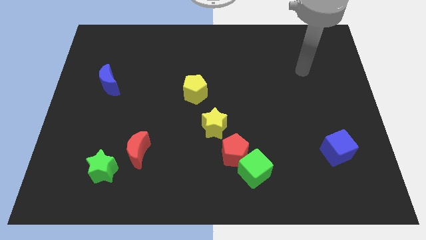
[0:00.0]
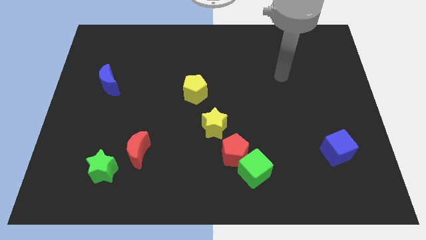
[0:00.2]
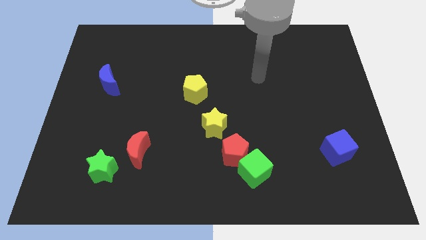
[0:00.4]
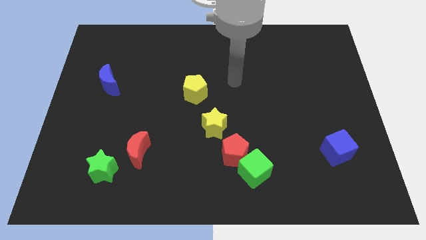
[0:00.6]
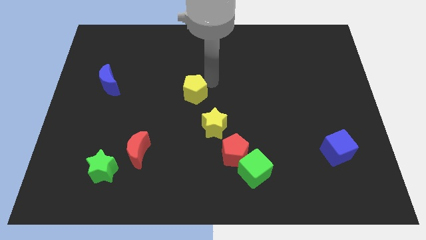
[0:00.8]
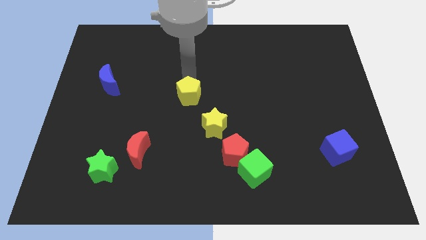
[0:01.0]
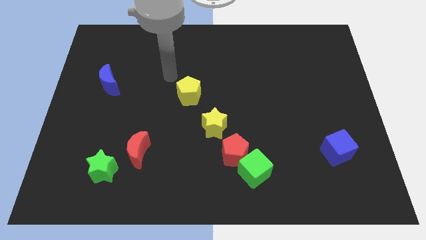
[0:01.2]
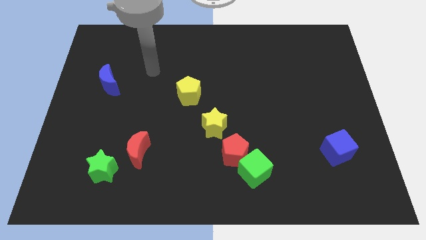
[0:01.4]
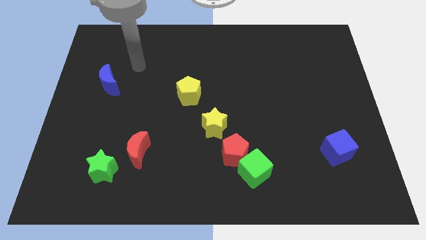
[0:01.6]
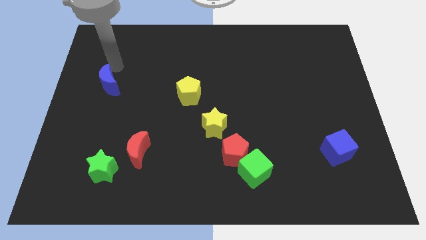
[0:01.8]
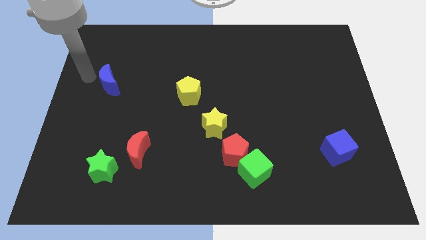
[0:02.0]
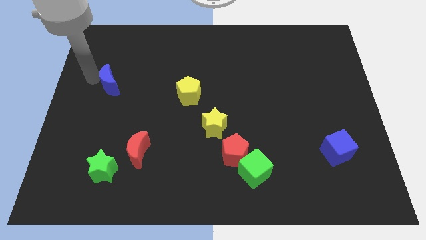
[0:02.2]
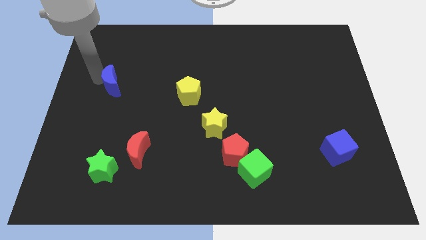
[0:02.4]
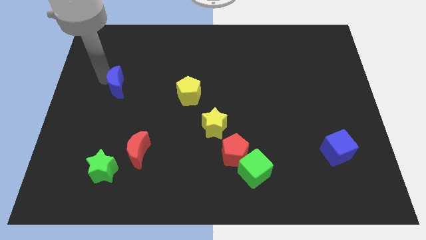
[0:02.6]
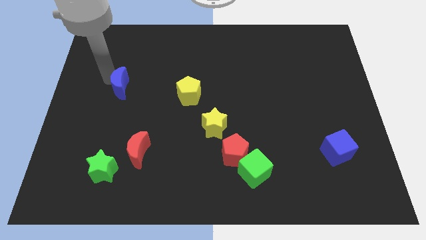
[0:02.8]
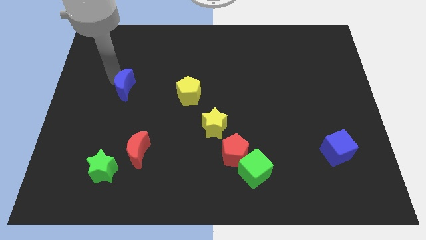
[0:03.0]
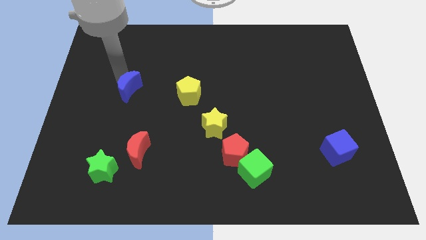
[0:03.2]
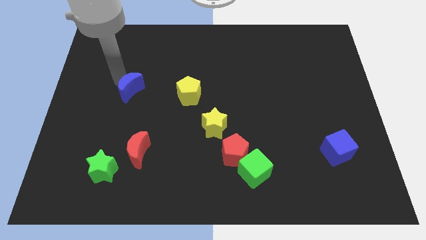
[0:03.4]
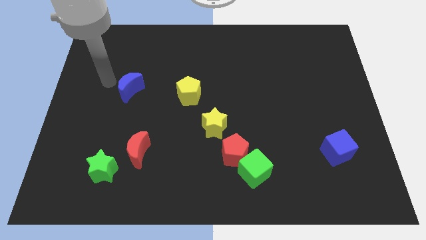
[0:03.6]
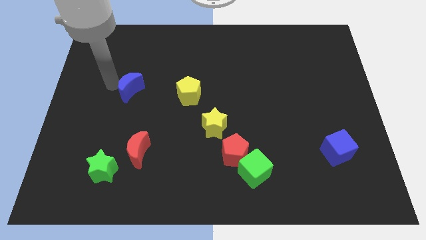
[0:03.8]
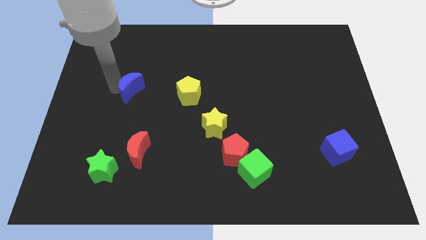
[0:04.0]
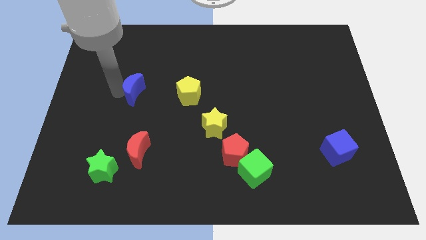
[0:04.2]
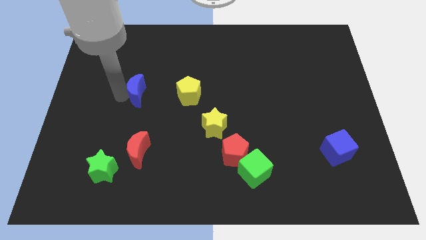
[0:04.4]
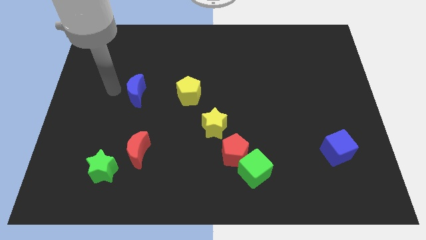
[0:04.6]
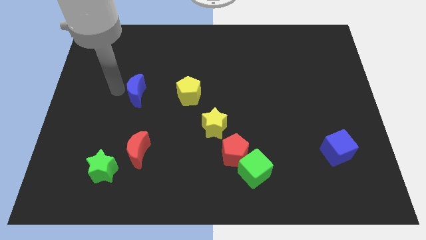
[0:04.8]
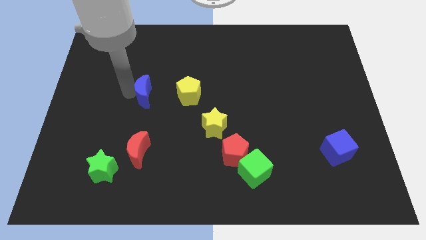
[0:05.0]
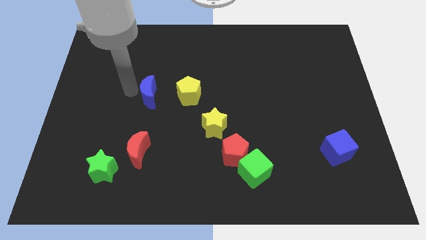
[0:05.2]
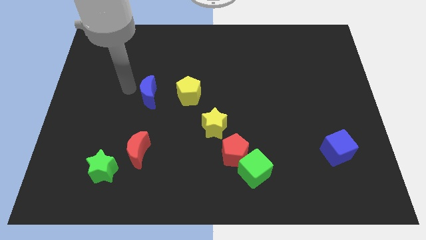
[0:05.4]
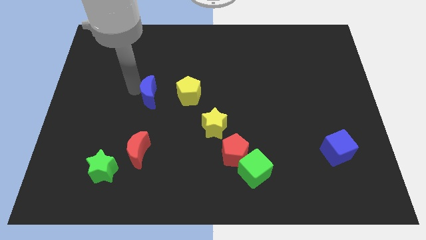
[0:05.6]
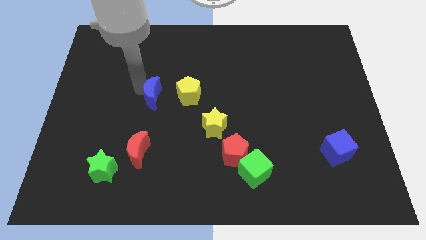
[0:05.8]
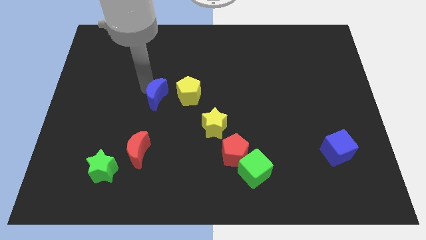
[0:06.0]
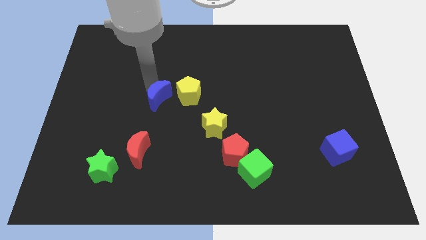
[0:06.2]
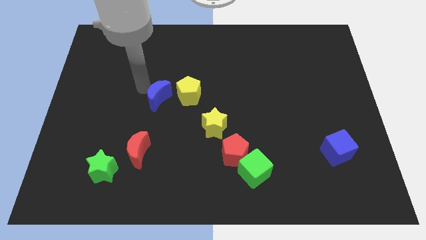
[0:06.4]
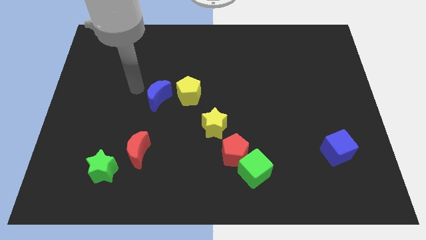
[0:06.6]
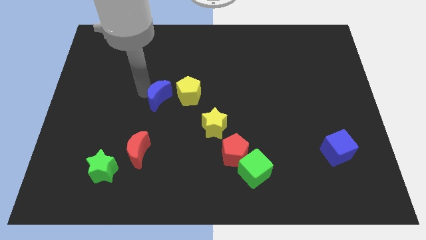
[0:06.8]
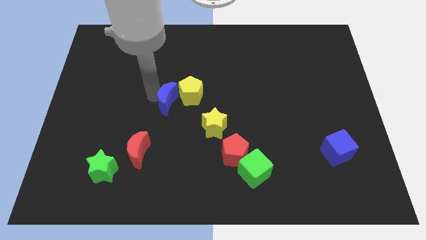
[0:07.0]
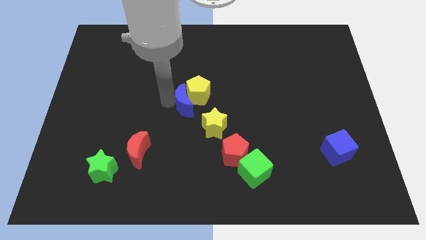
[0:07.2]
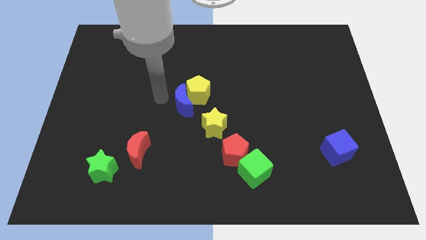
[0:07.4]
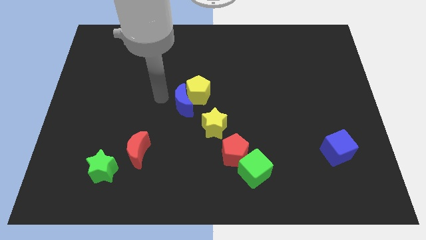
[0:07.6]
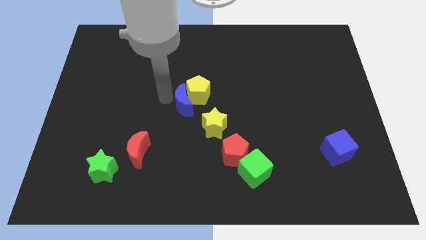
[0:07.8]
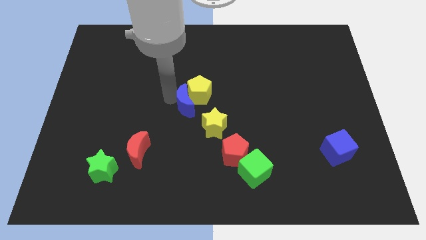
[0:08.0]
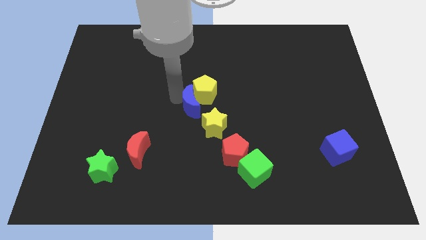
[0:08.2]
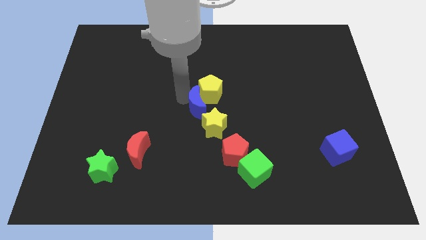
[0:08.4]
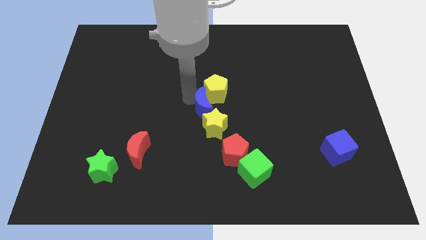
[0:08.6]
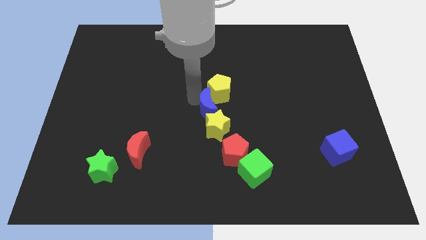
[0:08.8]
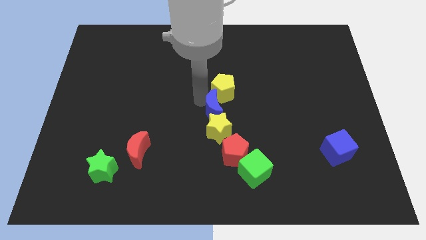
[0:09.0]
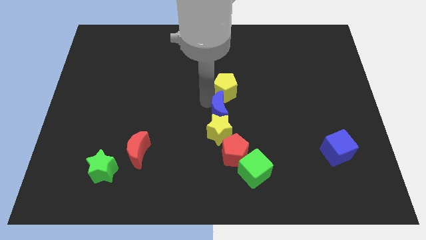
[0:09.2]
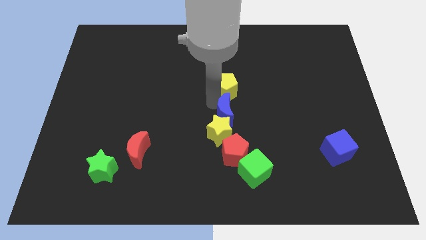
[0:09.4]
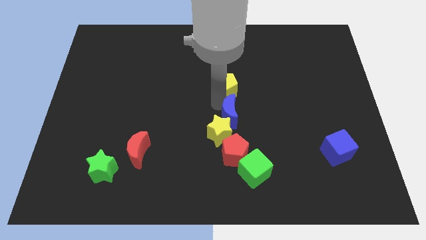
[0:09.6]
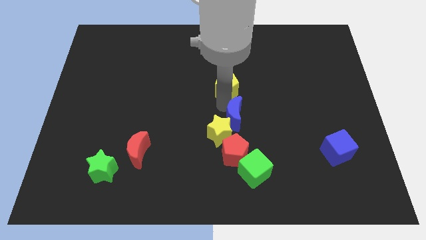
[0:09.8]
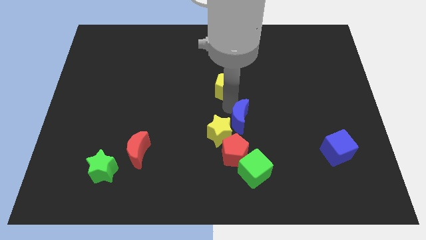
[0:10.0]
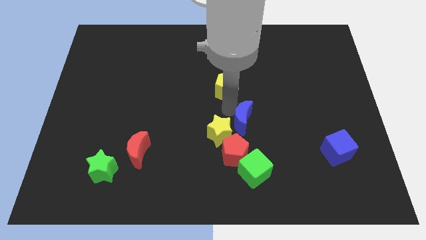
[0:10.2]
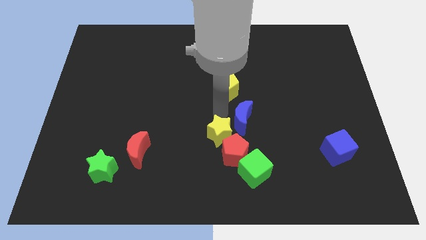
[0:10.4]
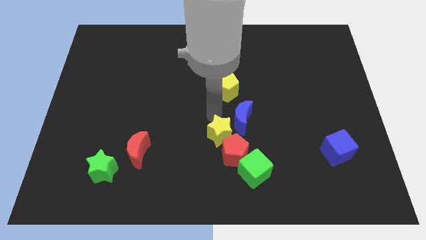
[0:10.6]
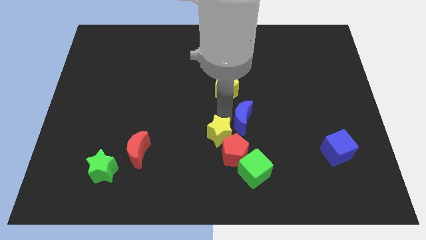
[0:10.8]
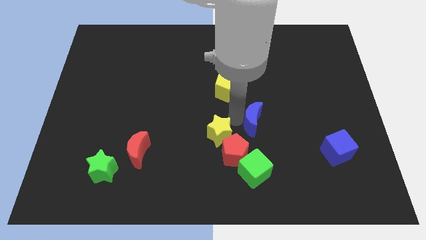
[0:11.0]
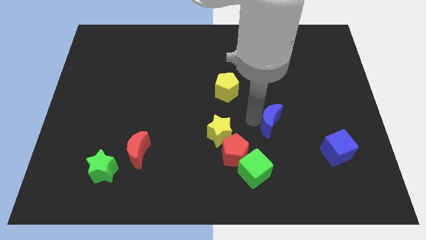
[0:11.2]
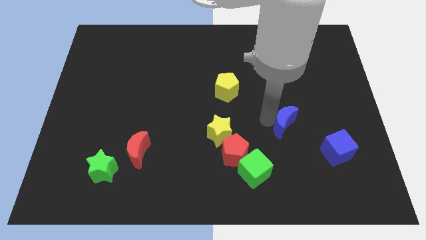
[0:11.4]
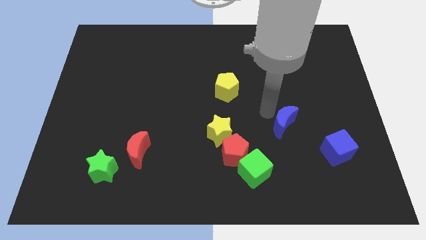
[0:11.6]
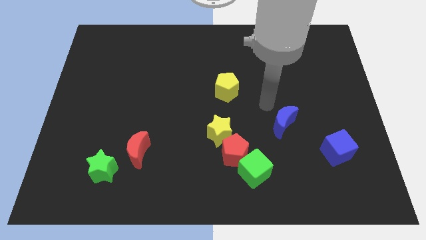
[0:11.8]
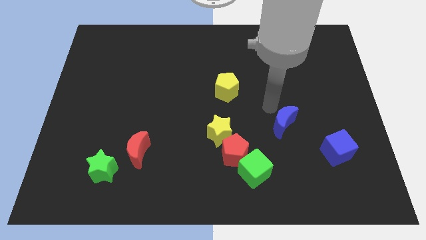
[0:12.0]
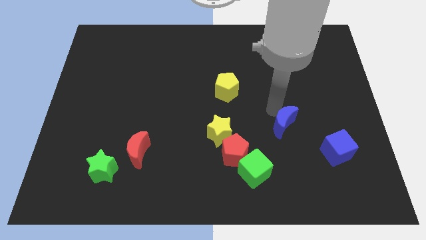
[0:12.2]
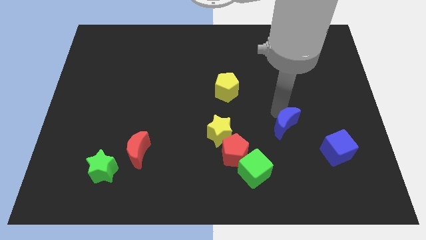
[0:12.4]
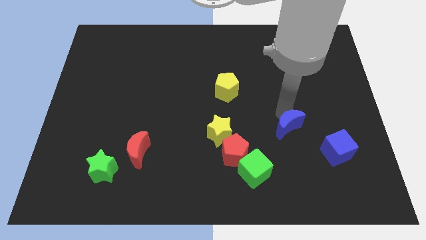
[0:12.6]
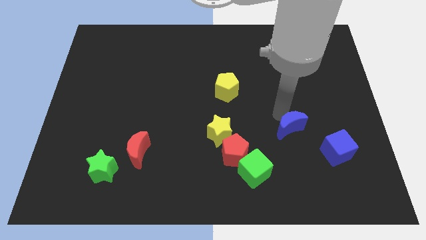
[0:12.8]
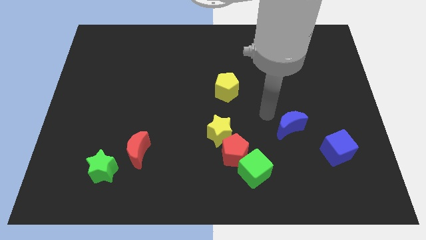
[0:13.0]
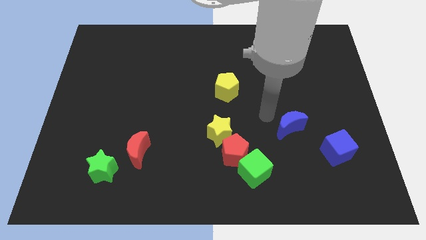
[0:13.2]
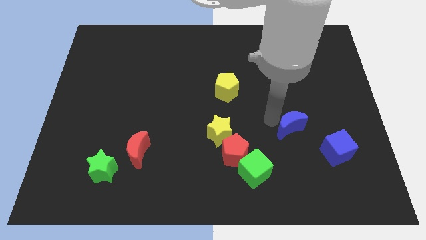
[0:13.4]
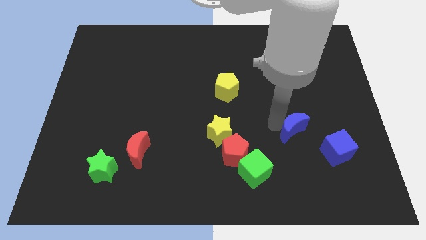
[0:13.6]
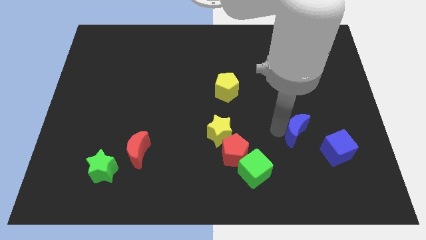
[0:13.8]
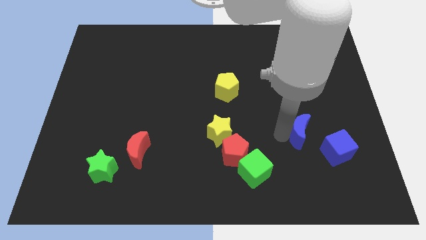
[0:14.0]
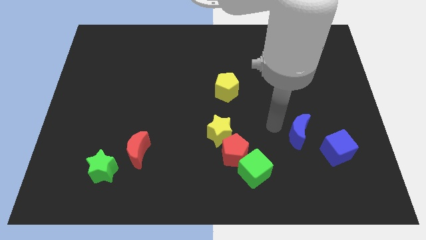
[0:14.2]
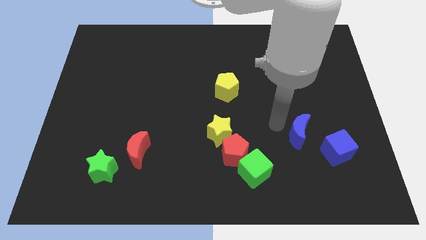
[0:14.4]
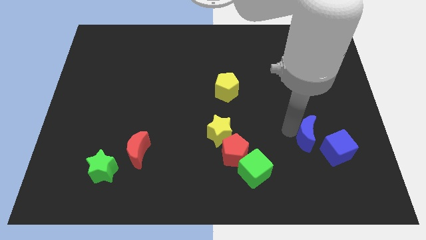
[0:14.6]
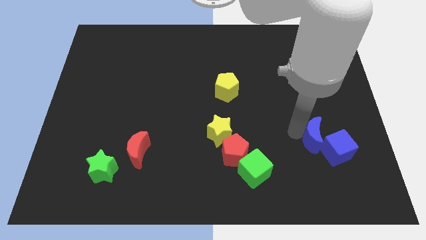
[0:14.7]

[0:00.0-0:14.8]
push the blue moon to the blue cube
